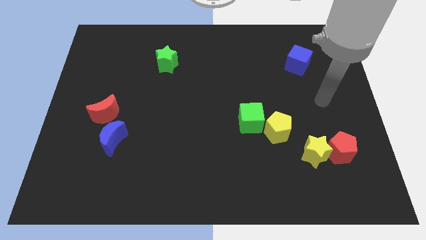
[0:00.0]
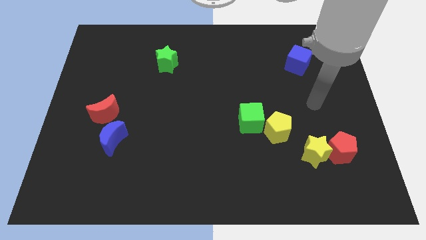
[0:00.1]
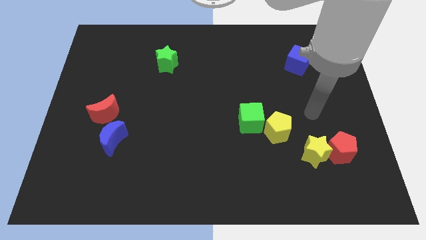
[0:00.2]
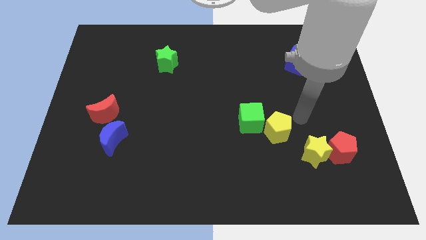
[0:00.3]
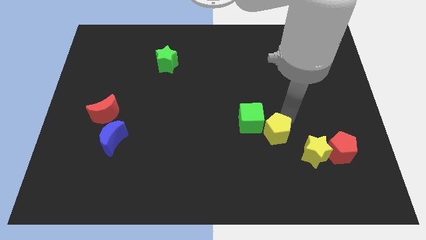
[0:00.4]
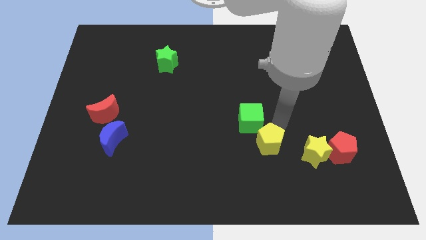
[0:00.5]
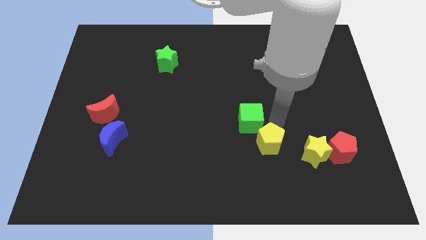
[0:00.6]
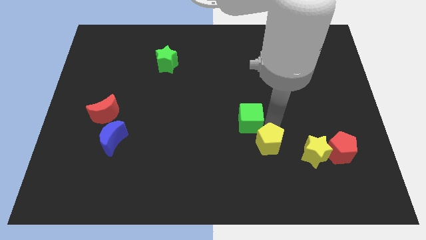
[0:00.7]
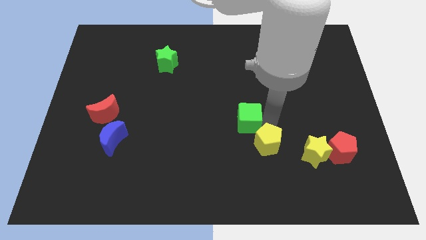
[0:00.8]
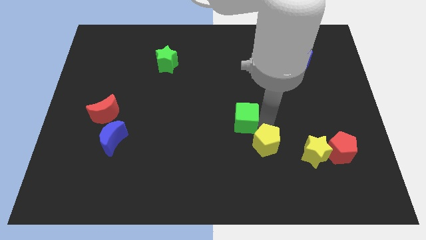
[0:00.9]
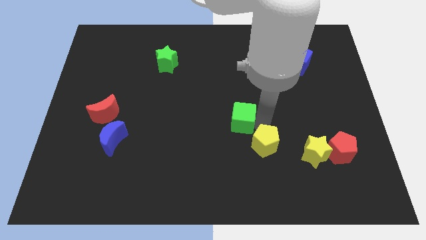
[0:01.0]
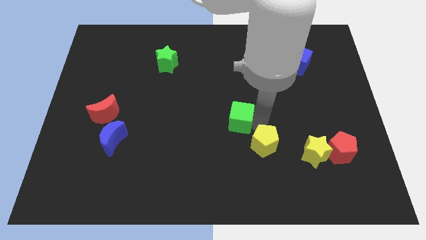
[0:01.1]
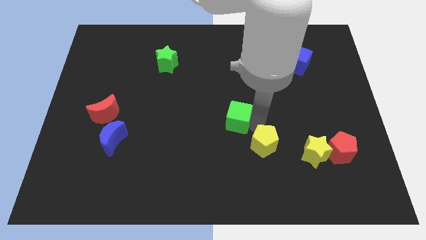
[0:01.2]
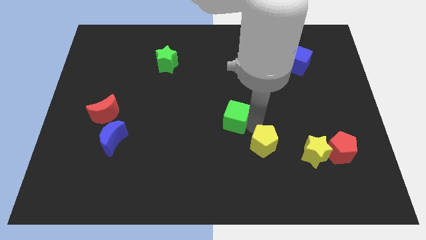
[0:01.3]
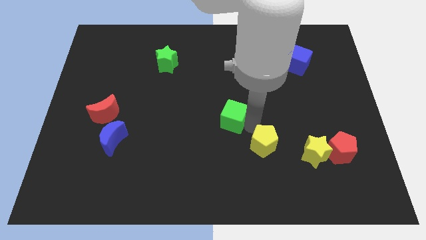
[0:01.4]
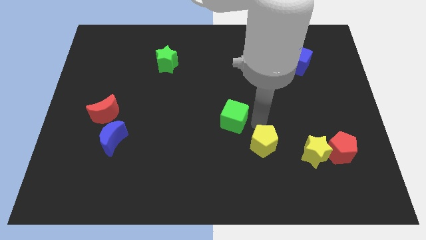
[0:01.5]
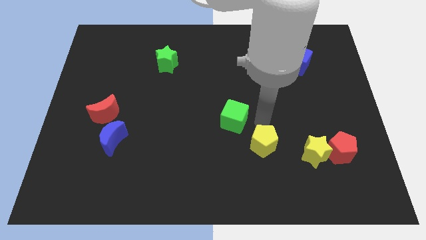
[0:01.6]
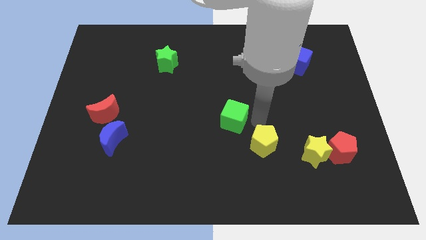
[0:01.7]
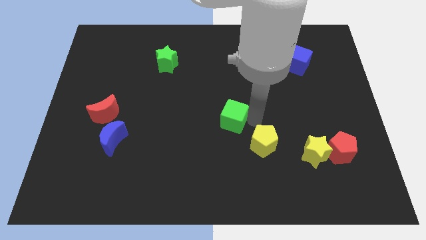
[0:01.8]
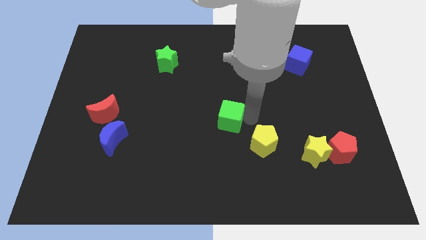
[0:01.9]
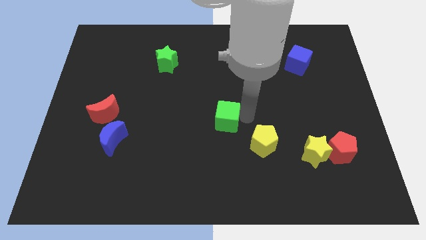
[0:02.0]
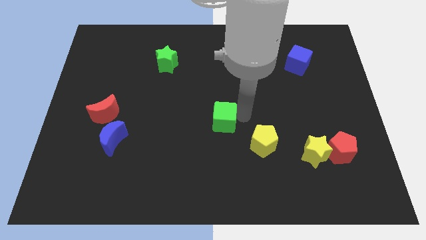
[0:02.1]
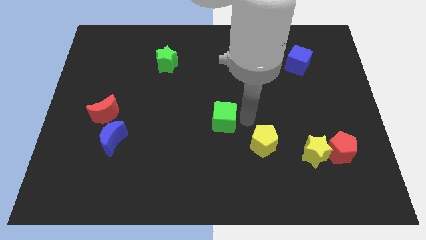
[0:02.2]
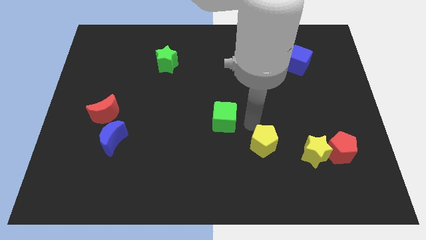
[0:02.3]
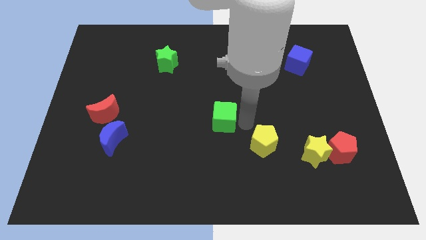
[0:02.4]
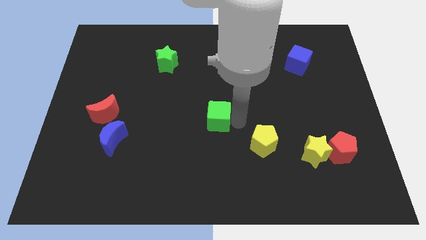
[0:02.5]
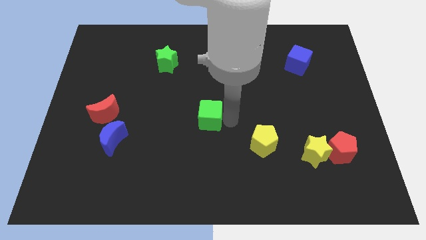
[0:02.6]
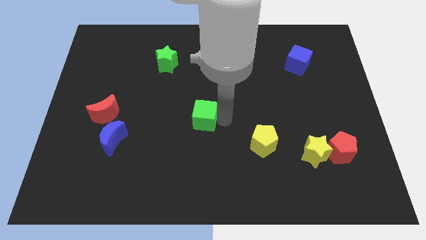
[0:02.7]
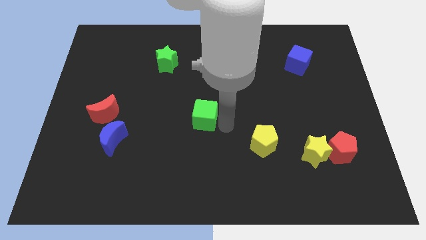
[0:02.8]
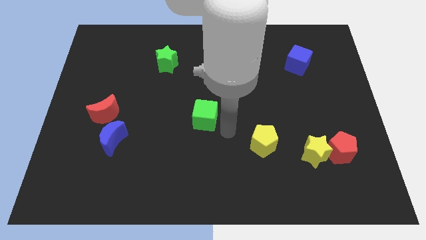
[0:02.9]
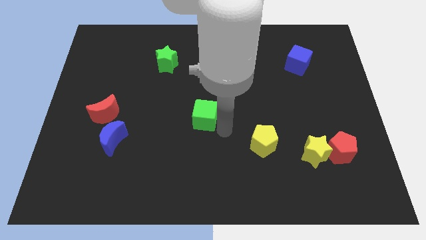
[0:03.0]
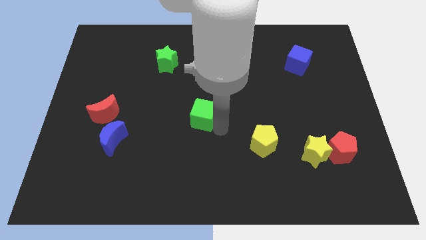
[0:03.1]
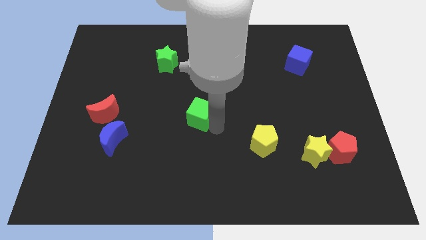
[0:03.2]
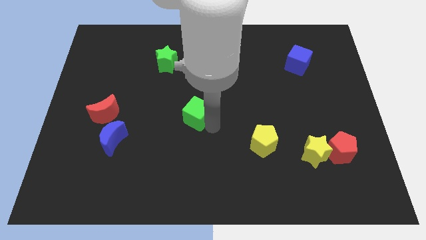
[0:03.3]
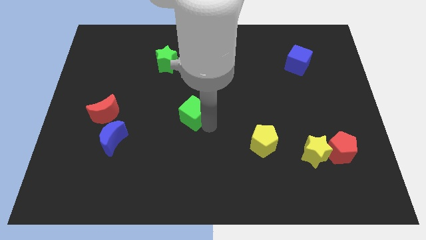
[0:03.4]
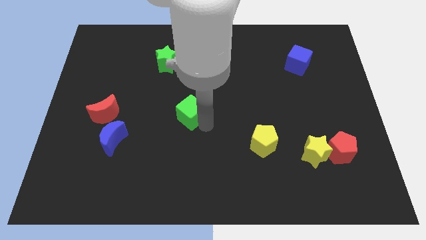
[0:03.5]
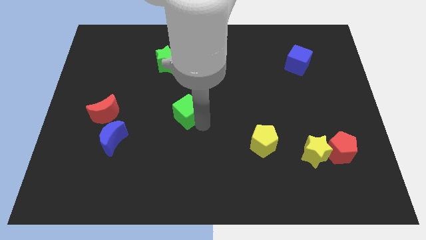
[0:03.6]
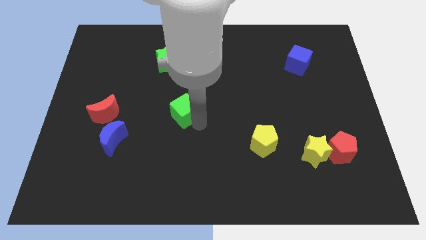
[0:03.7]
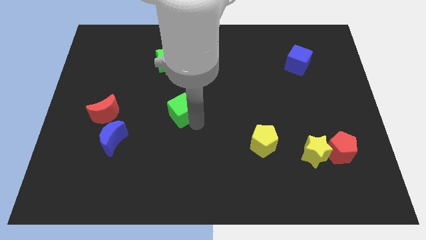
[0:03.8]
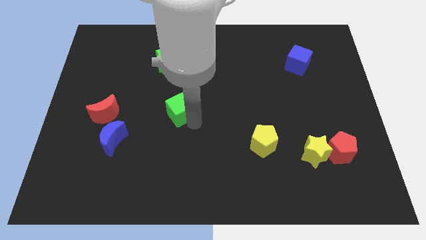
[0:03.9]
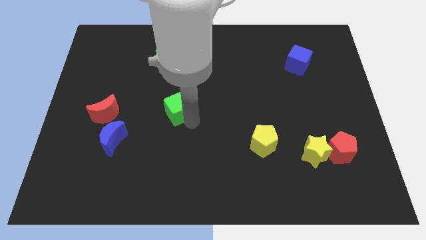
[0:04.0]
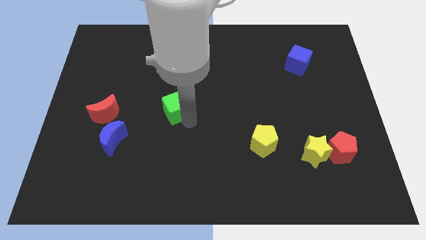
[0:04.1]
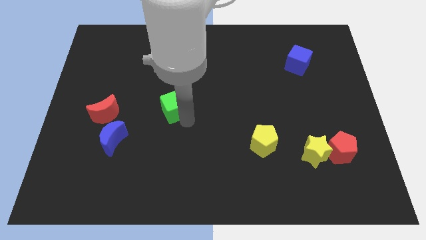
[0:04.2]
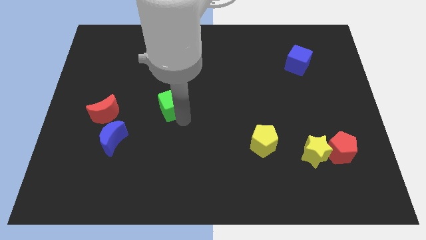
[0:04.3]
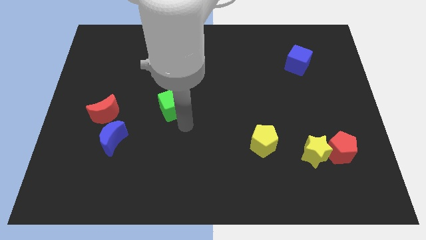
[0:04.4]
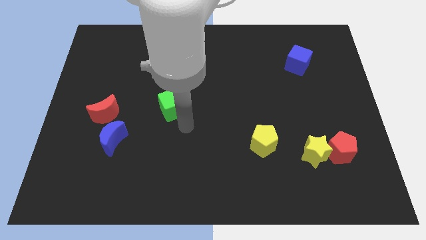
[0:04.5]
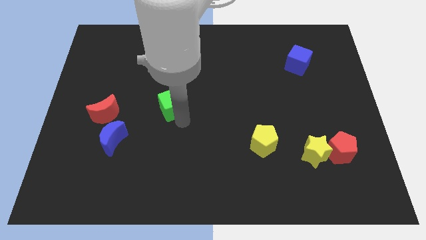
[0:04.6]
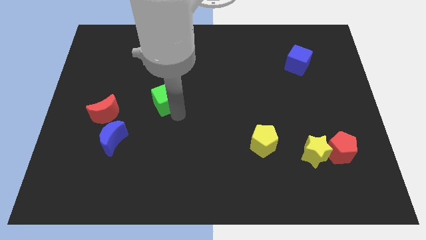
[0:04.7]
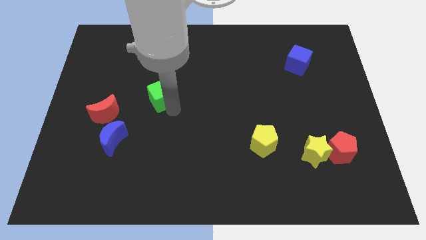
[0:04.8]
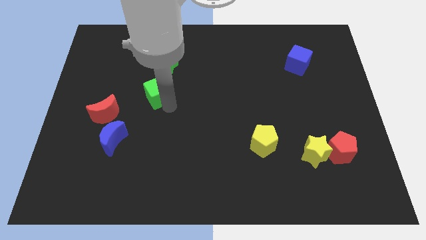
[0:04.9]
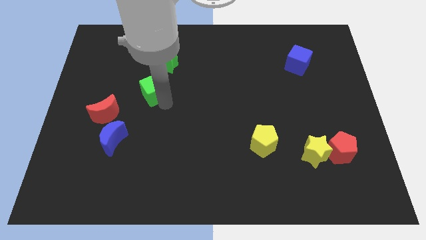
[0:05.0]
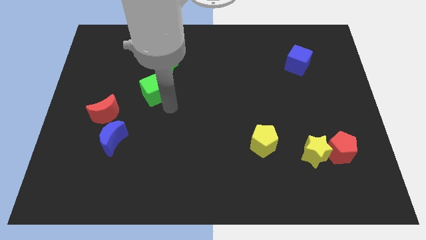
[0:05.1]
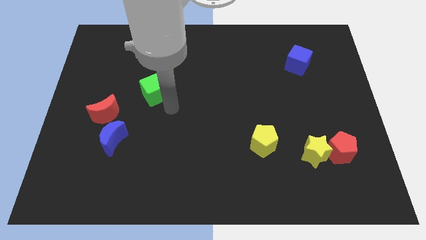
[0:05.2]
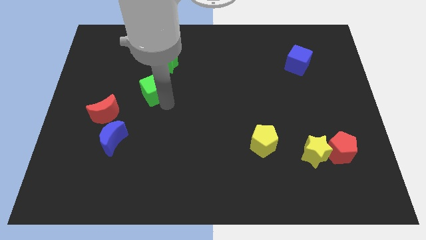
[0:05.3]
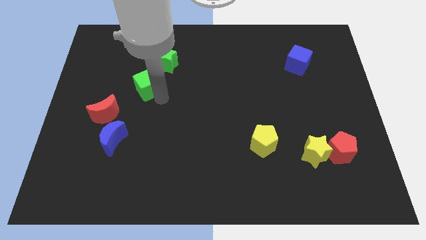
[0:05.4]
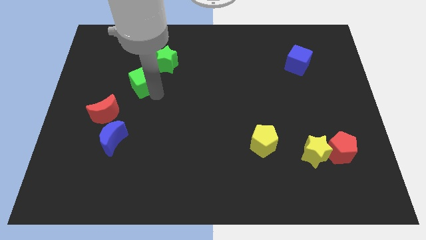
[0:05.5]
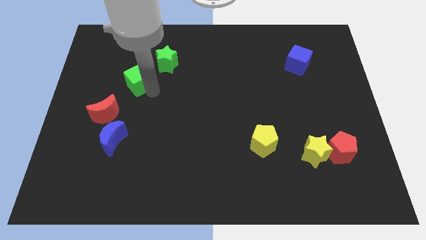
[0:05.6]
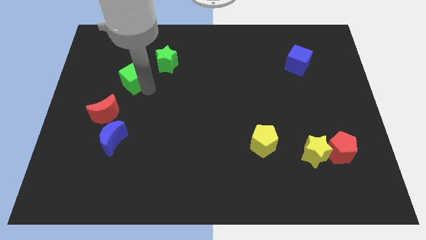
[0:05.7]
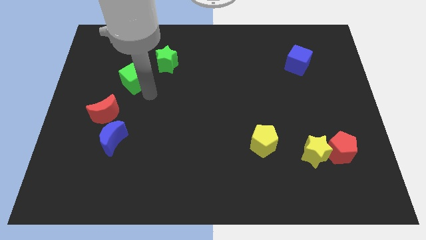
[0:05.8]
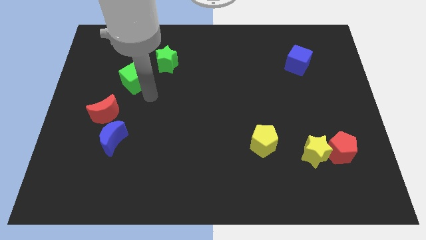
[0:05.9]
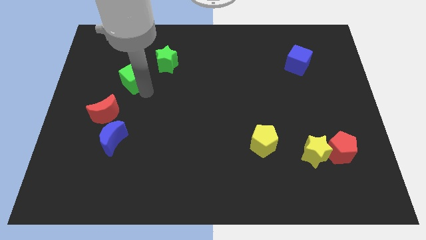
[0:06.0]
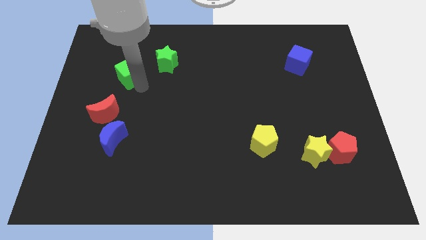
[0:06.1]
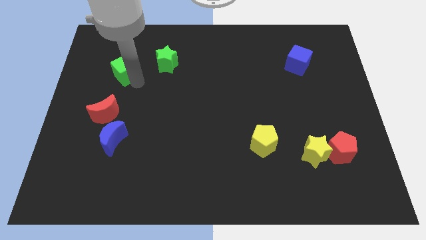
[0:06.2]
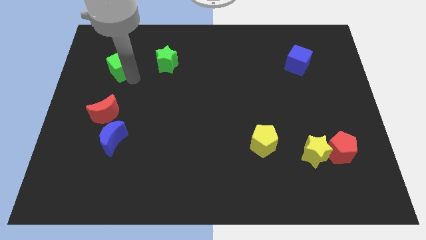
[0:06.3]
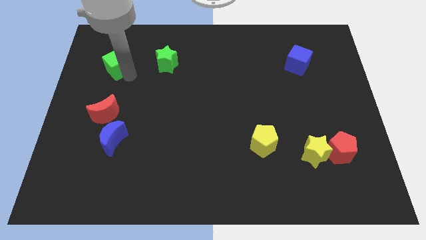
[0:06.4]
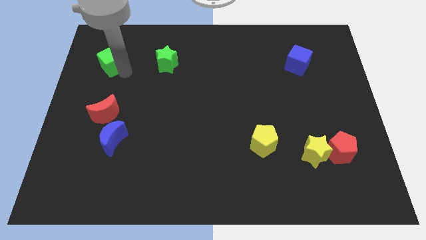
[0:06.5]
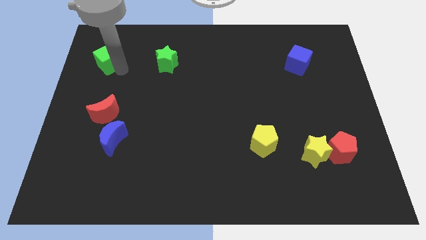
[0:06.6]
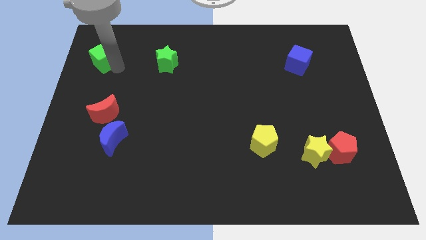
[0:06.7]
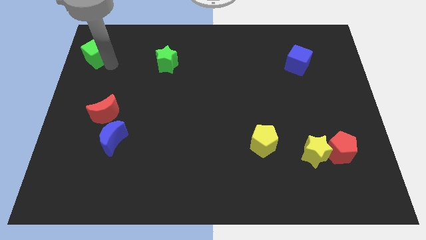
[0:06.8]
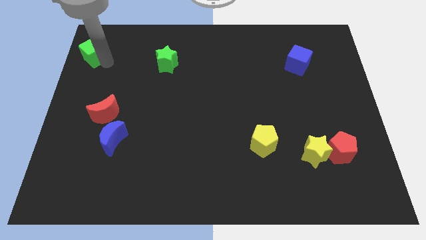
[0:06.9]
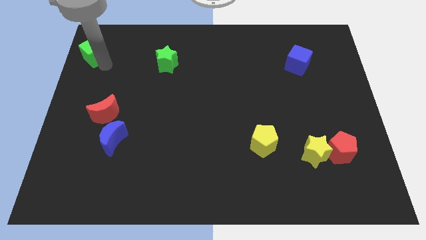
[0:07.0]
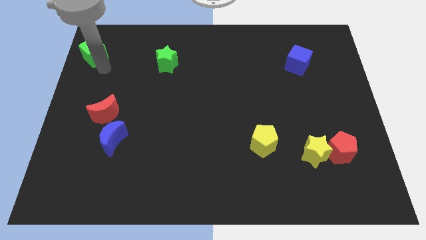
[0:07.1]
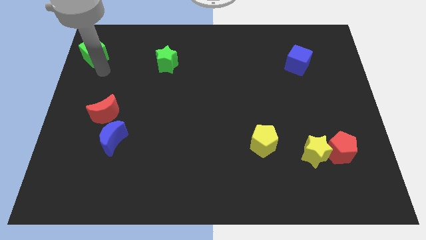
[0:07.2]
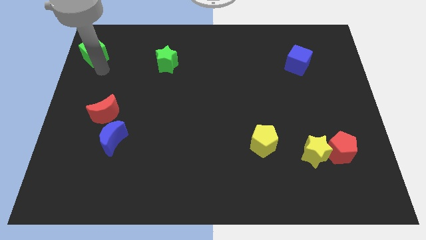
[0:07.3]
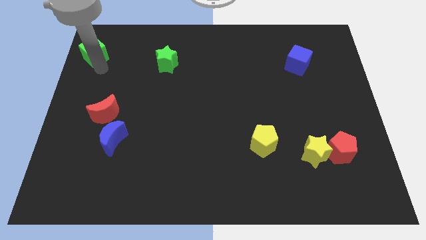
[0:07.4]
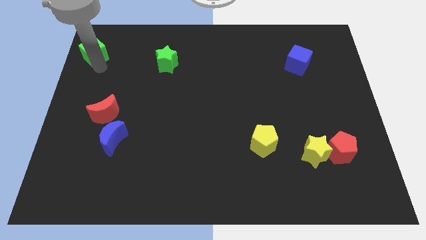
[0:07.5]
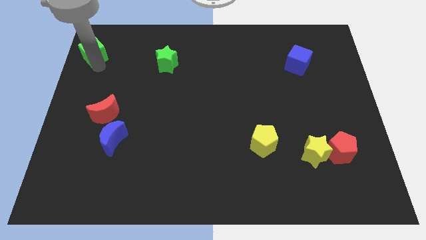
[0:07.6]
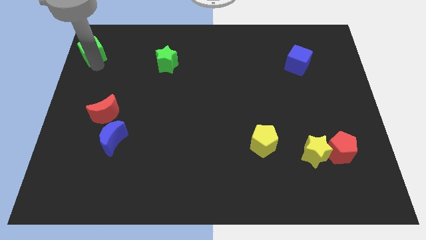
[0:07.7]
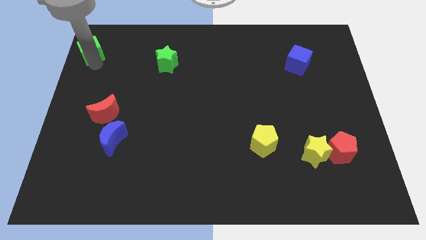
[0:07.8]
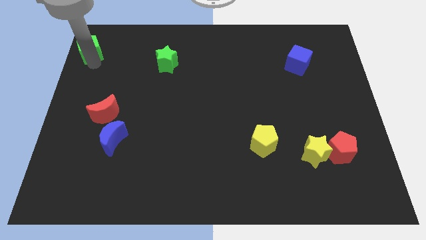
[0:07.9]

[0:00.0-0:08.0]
push the green cube to the upper left corner
